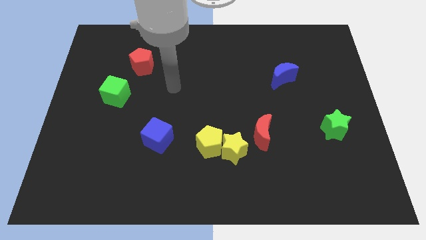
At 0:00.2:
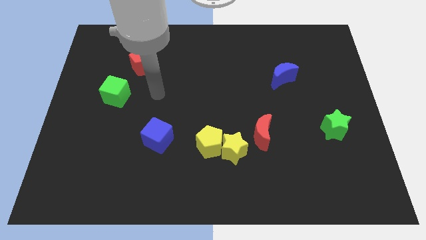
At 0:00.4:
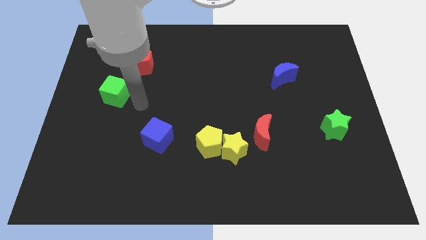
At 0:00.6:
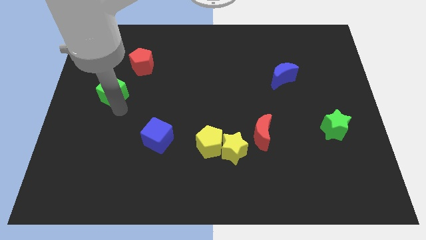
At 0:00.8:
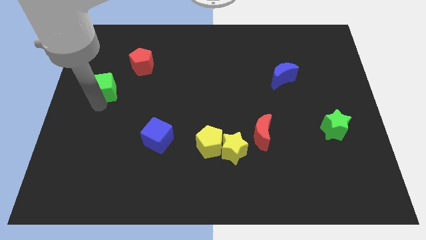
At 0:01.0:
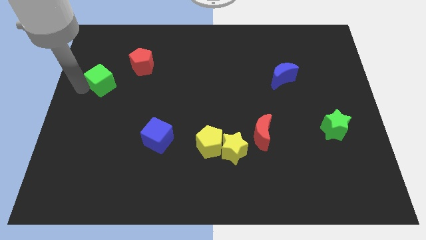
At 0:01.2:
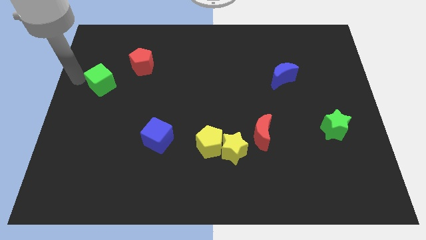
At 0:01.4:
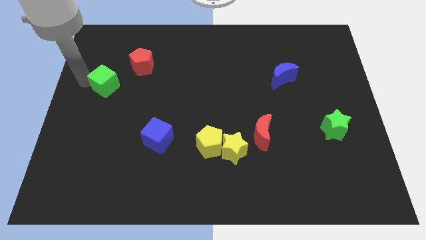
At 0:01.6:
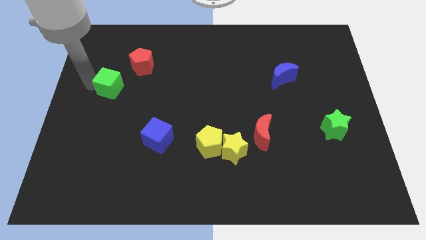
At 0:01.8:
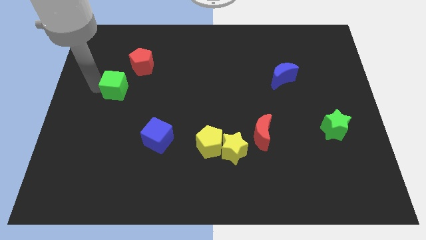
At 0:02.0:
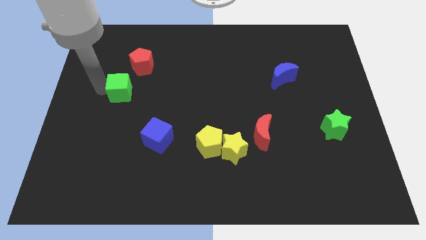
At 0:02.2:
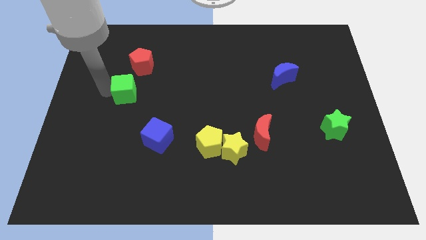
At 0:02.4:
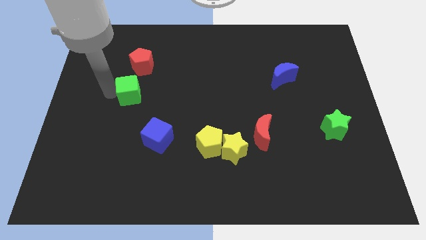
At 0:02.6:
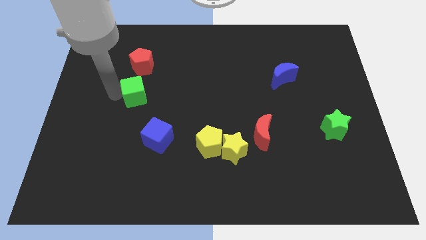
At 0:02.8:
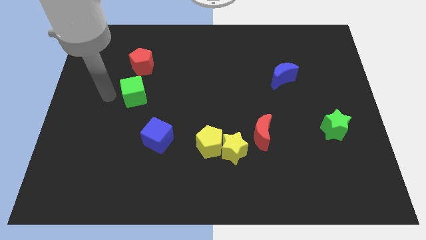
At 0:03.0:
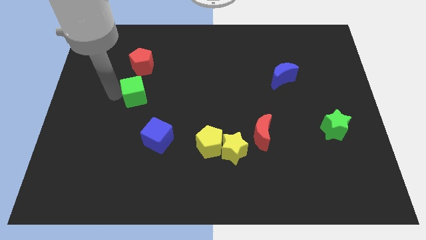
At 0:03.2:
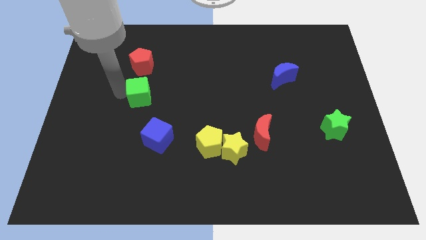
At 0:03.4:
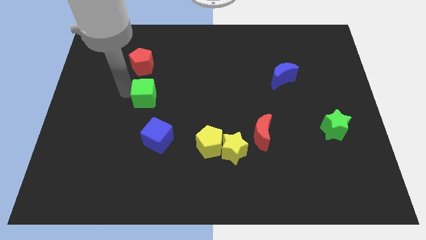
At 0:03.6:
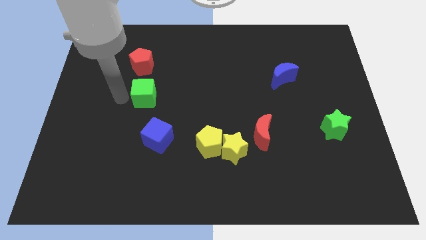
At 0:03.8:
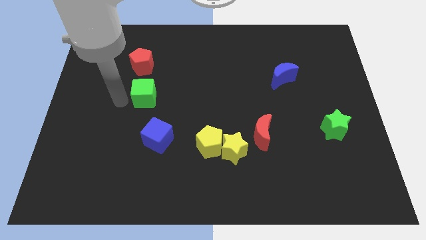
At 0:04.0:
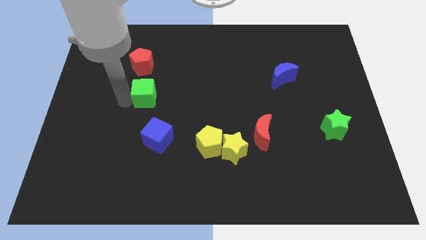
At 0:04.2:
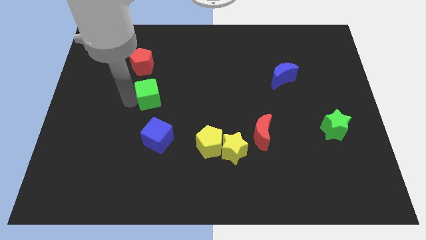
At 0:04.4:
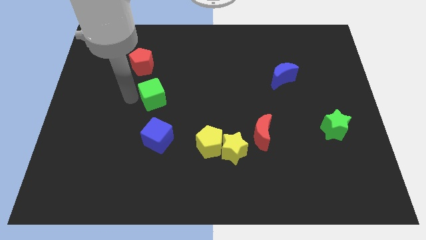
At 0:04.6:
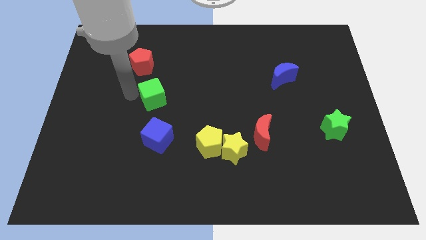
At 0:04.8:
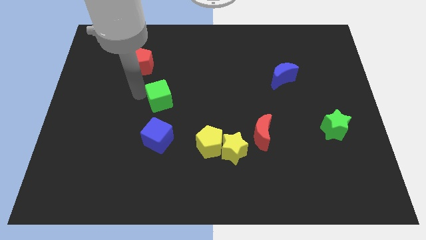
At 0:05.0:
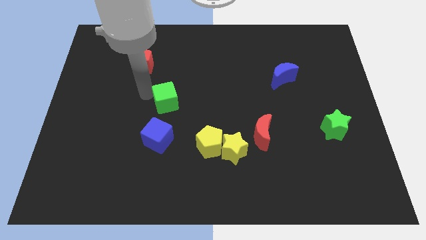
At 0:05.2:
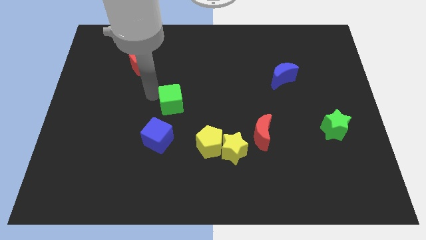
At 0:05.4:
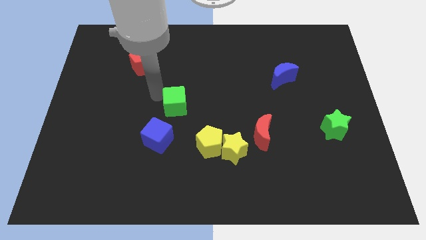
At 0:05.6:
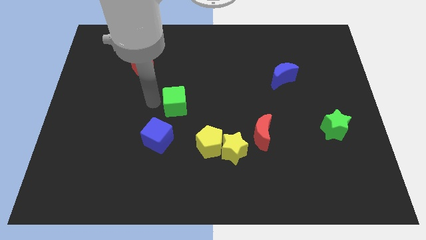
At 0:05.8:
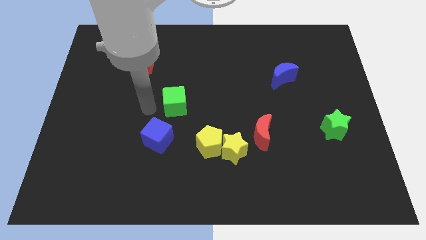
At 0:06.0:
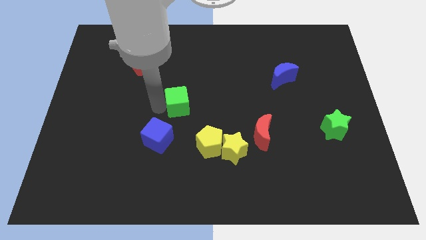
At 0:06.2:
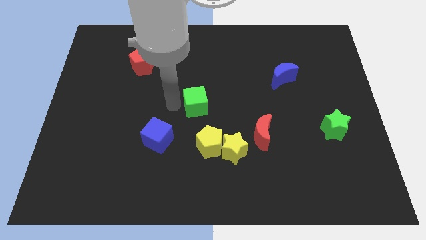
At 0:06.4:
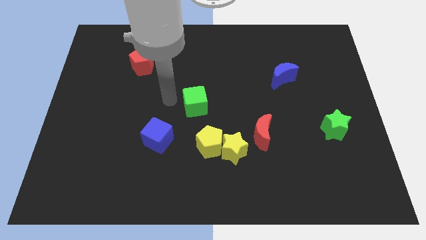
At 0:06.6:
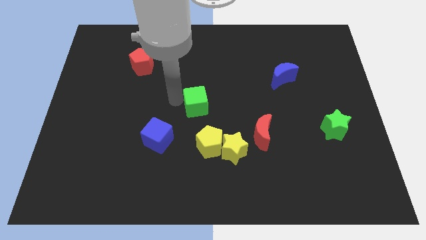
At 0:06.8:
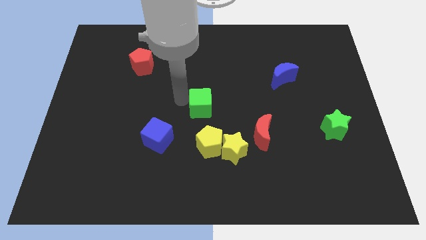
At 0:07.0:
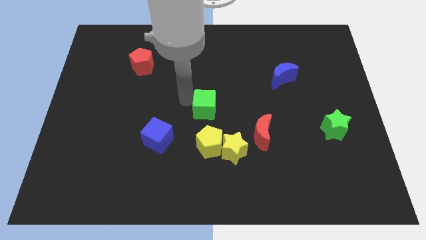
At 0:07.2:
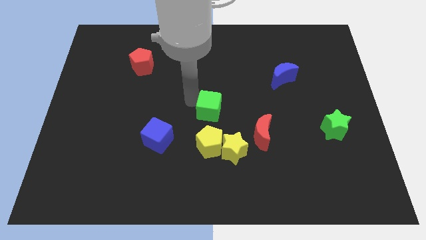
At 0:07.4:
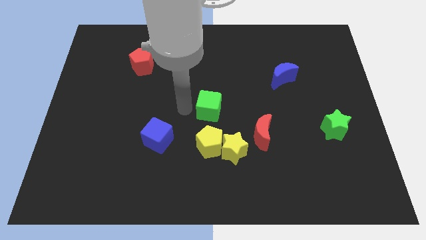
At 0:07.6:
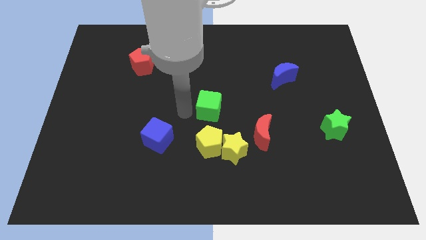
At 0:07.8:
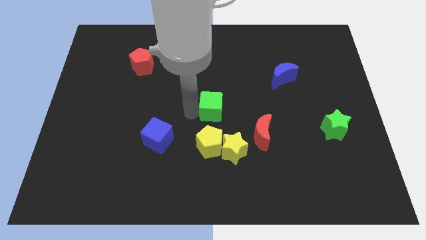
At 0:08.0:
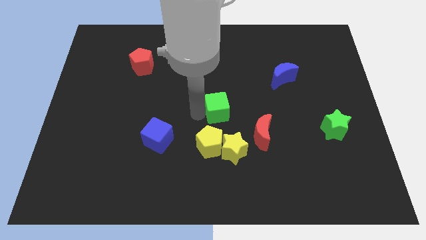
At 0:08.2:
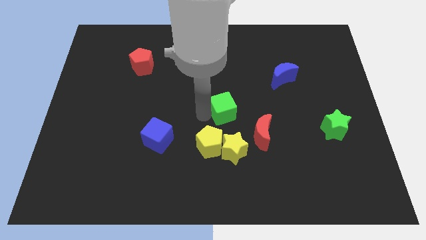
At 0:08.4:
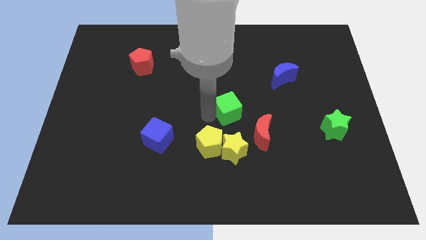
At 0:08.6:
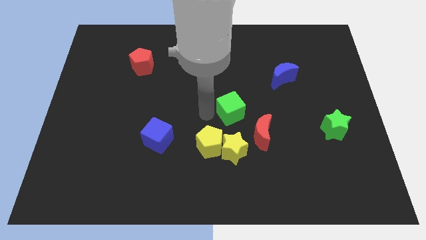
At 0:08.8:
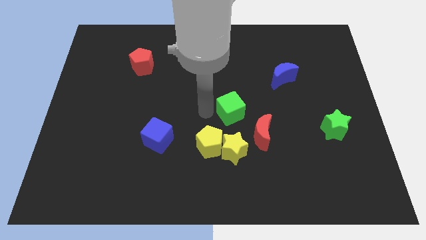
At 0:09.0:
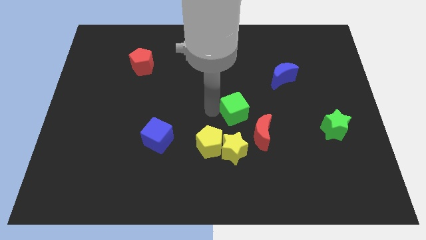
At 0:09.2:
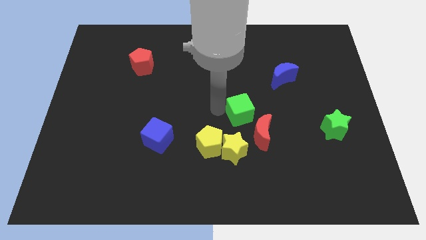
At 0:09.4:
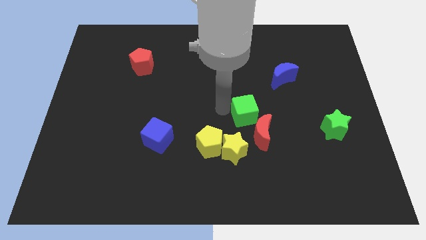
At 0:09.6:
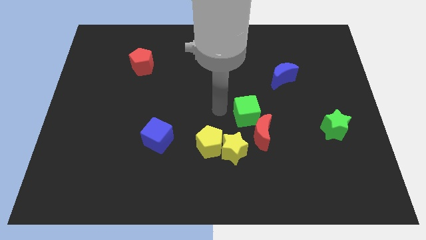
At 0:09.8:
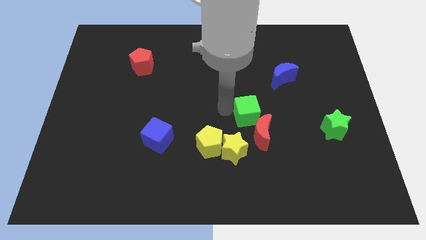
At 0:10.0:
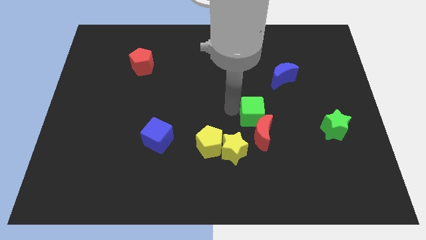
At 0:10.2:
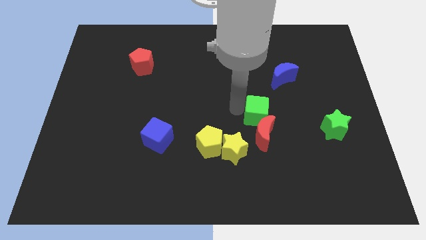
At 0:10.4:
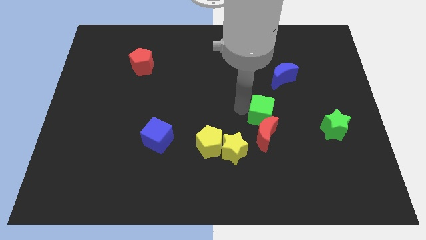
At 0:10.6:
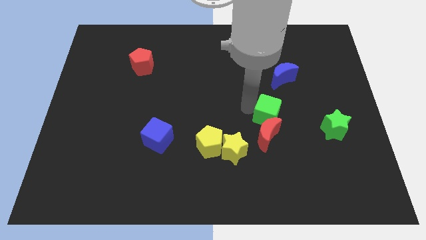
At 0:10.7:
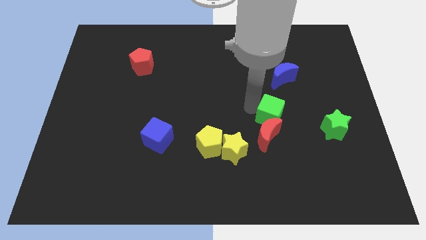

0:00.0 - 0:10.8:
push the green cube left of the green star

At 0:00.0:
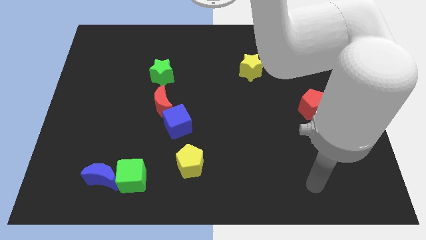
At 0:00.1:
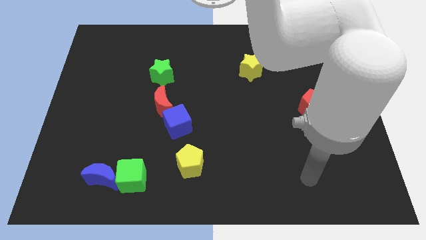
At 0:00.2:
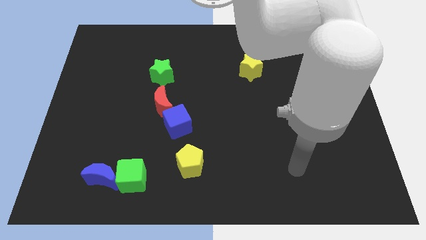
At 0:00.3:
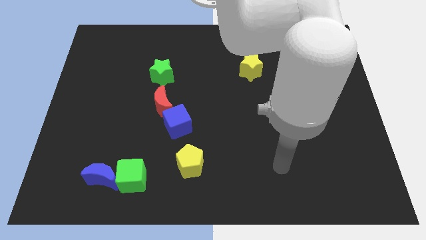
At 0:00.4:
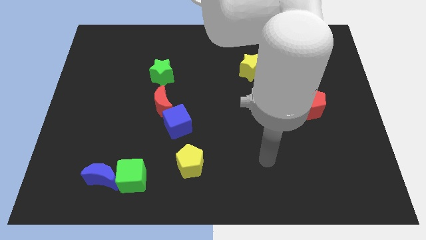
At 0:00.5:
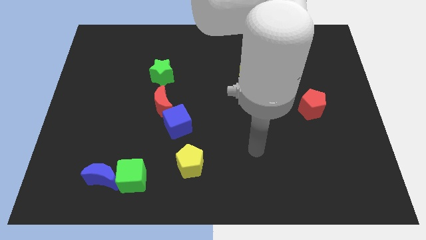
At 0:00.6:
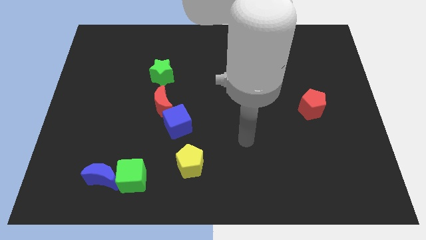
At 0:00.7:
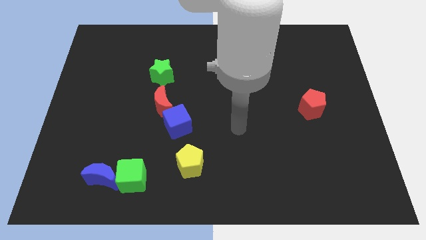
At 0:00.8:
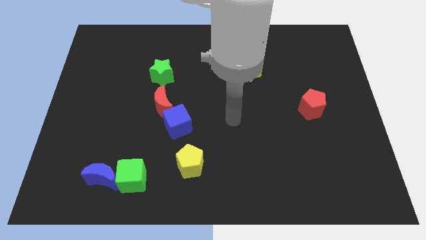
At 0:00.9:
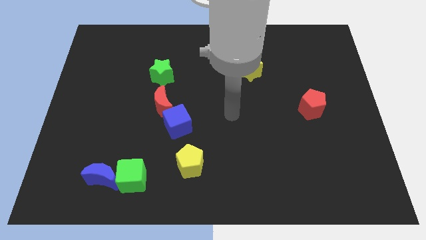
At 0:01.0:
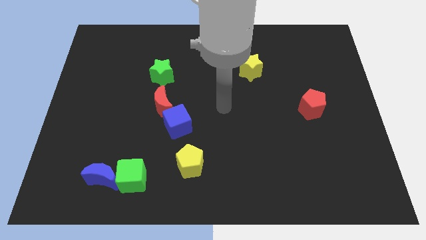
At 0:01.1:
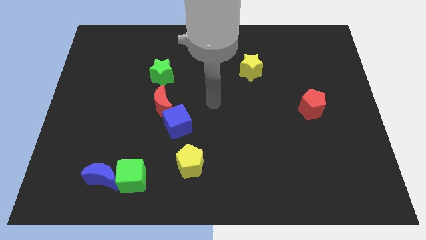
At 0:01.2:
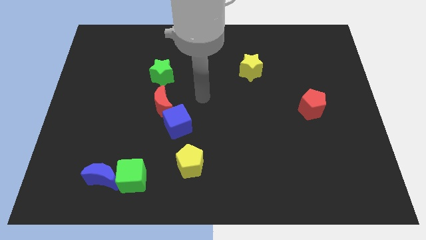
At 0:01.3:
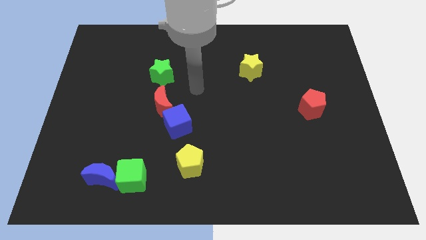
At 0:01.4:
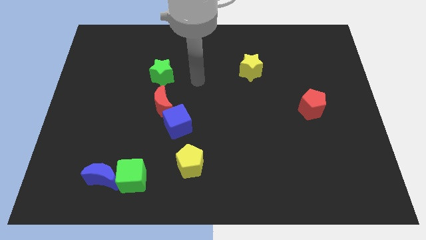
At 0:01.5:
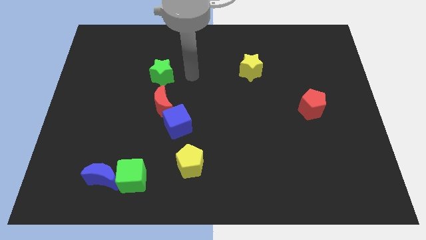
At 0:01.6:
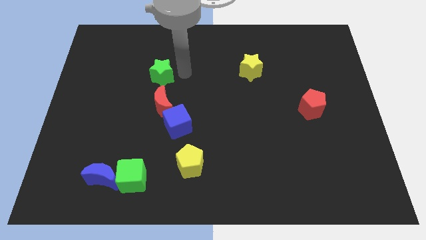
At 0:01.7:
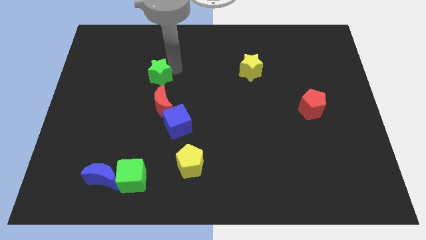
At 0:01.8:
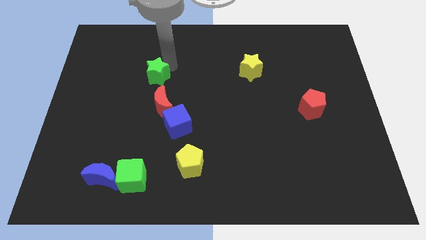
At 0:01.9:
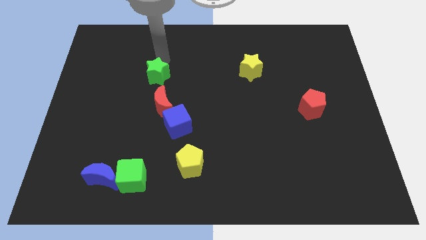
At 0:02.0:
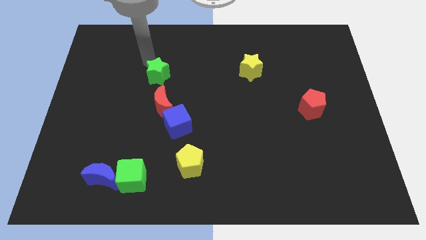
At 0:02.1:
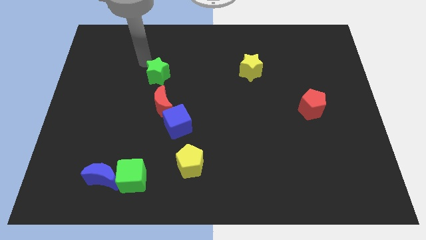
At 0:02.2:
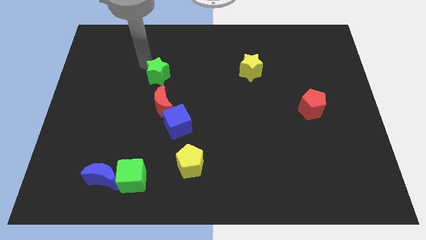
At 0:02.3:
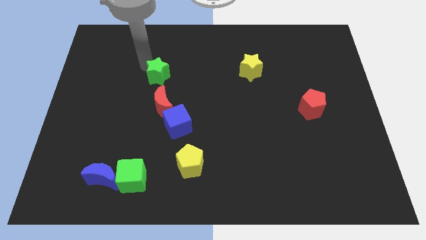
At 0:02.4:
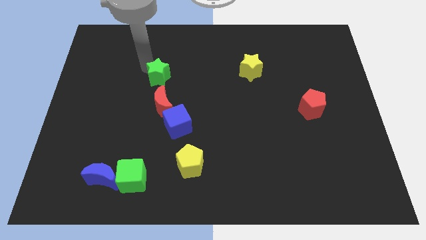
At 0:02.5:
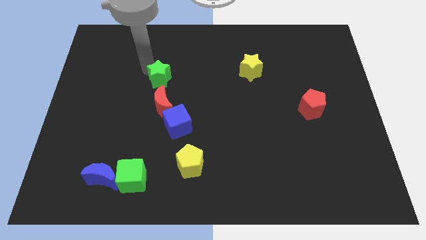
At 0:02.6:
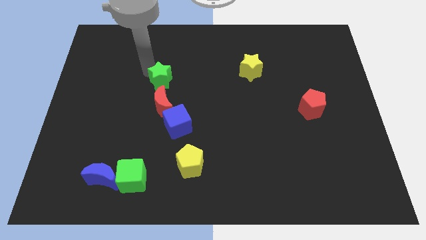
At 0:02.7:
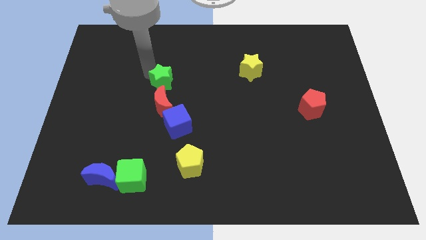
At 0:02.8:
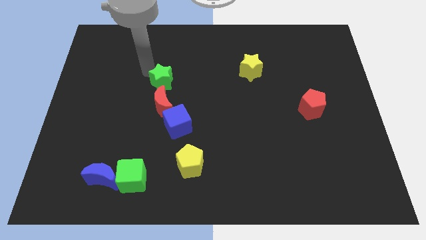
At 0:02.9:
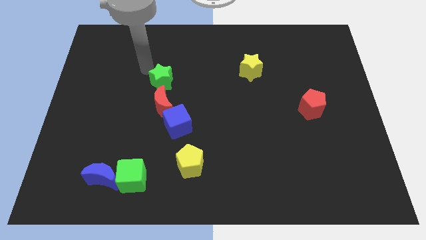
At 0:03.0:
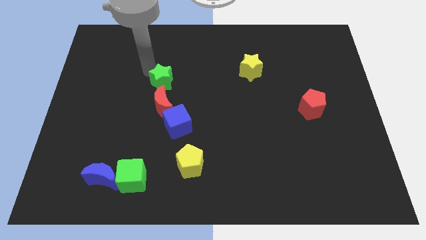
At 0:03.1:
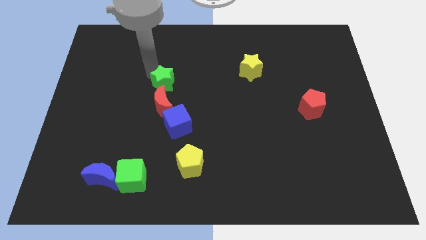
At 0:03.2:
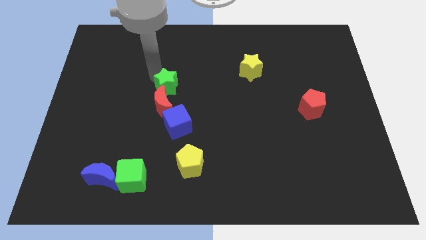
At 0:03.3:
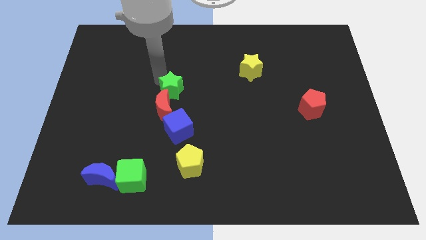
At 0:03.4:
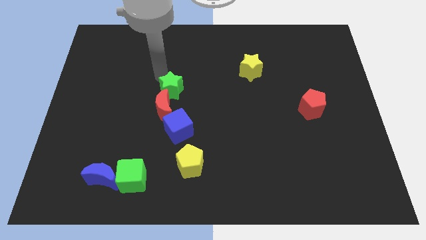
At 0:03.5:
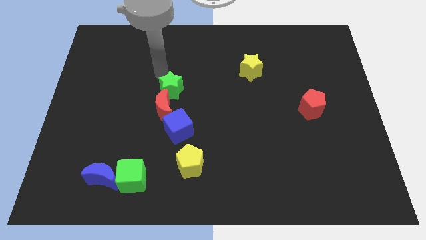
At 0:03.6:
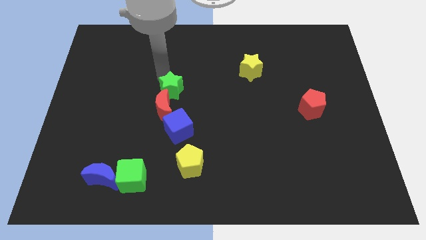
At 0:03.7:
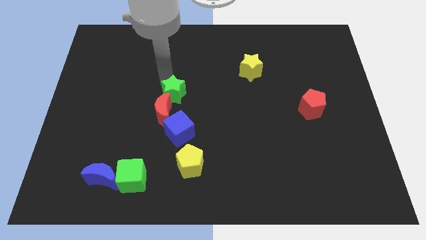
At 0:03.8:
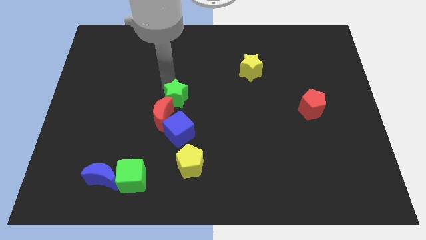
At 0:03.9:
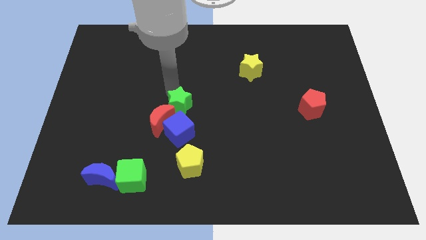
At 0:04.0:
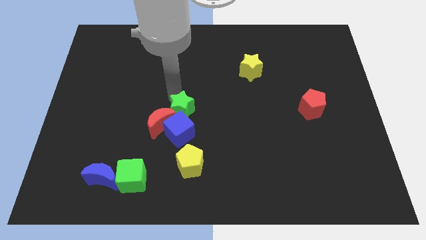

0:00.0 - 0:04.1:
push the green star to the top of the yellow pentagon
